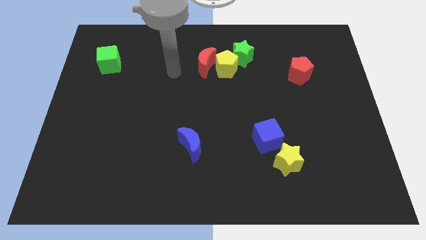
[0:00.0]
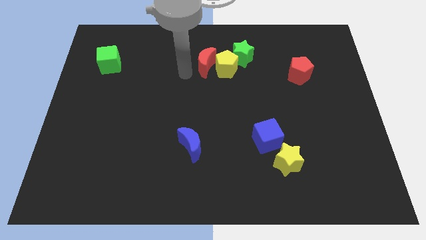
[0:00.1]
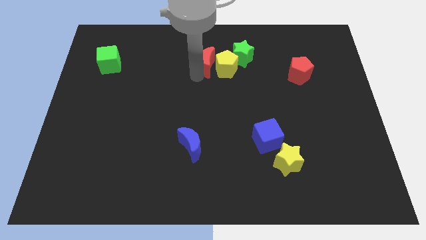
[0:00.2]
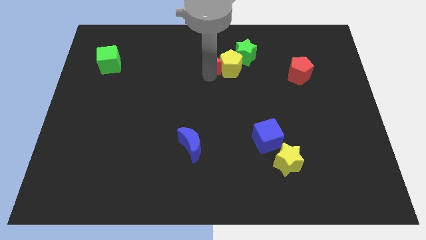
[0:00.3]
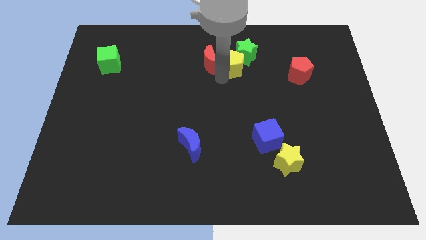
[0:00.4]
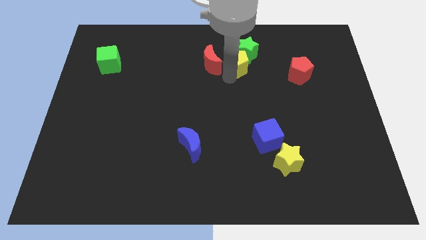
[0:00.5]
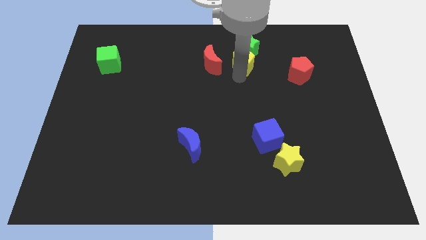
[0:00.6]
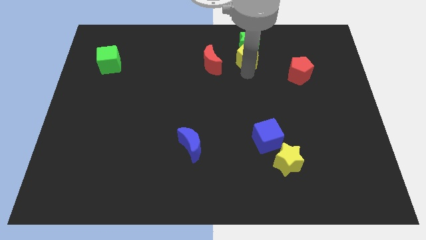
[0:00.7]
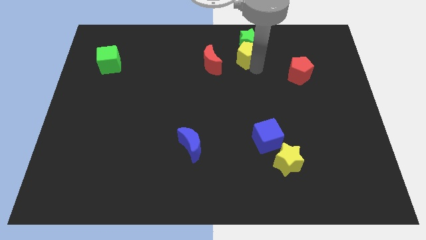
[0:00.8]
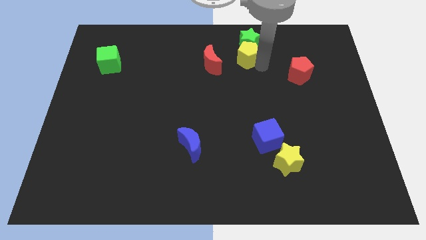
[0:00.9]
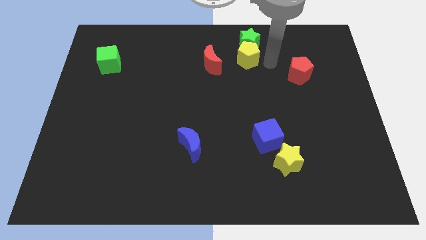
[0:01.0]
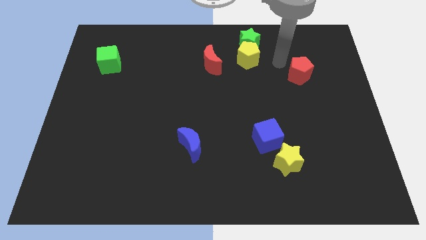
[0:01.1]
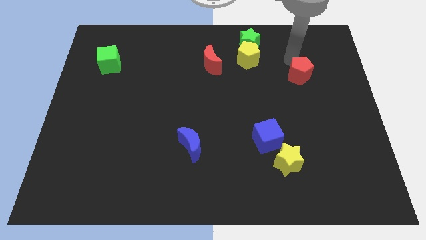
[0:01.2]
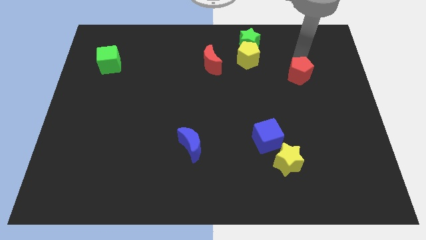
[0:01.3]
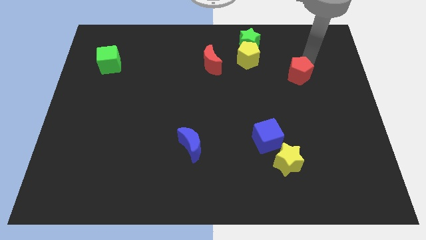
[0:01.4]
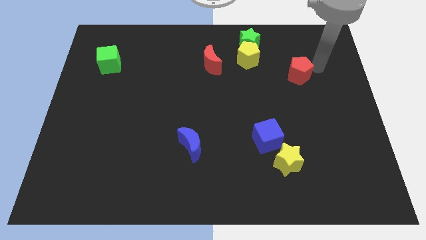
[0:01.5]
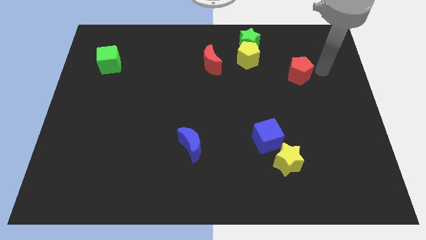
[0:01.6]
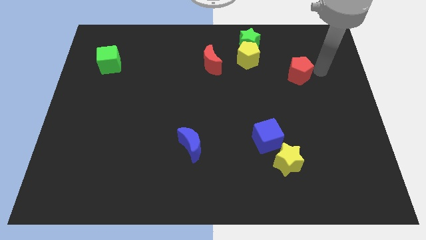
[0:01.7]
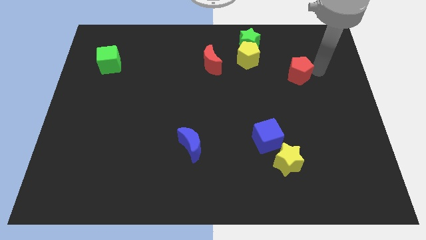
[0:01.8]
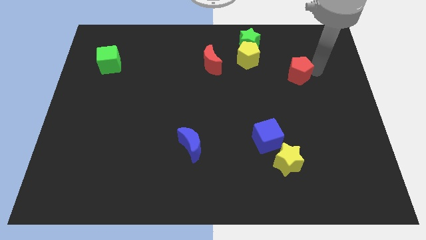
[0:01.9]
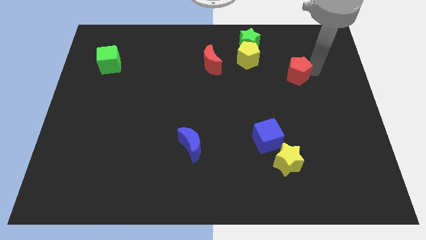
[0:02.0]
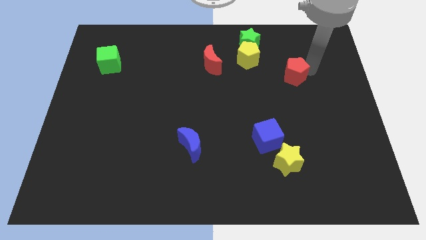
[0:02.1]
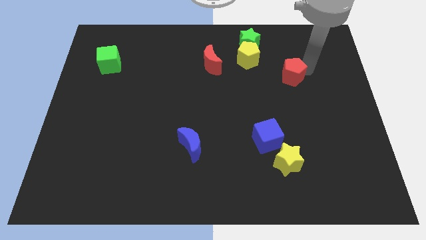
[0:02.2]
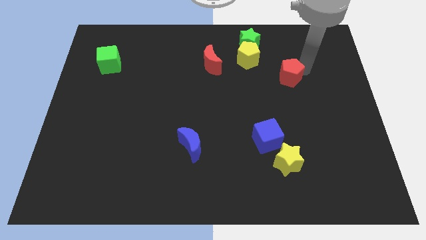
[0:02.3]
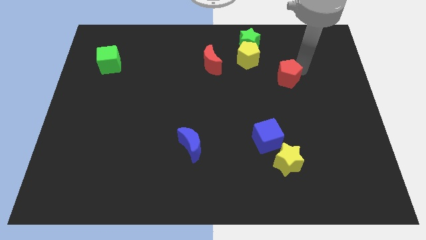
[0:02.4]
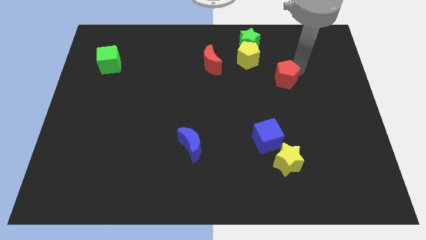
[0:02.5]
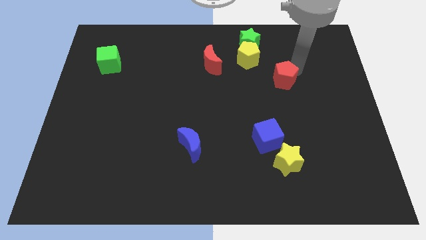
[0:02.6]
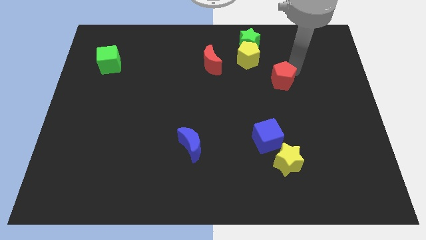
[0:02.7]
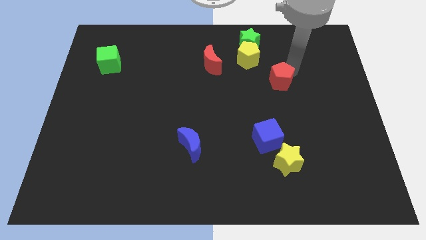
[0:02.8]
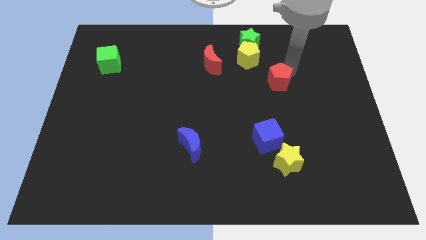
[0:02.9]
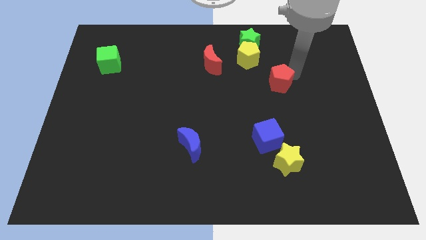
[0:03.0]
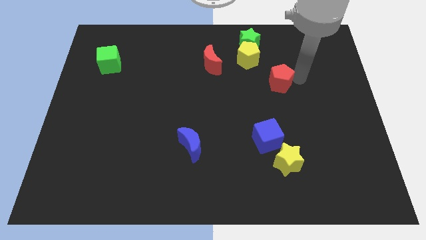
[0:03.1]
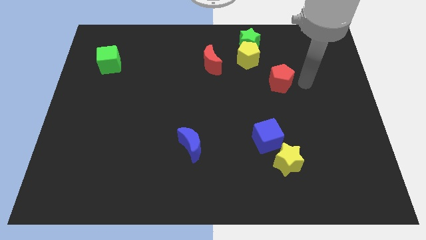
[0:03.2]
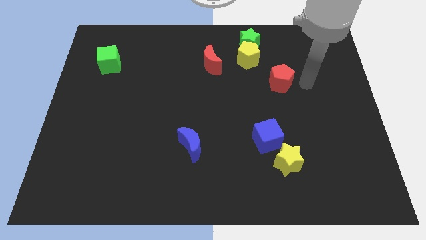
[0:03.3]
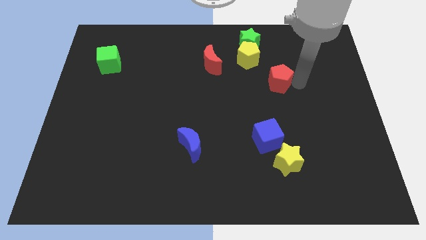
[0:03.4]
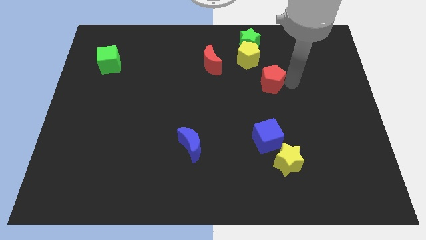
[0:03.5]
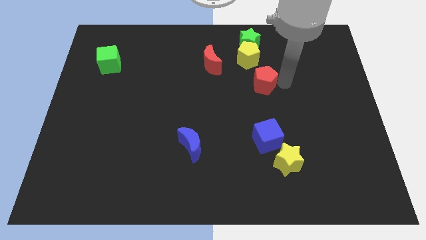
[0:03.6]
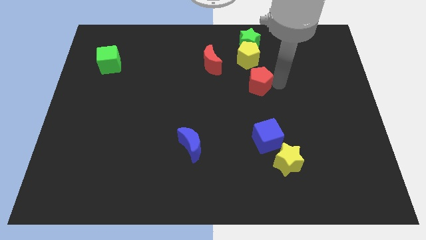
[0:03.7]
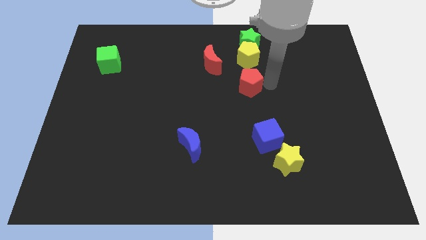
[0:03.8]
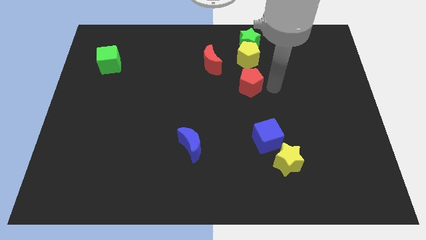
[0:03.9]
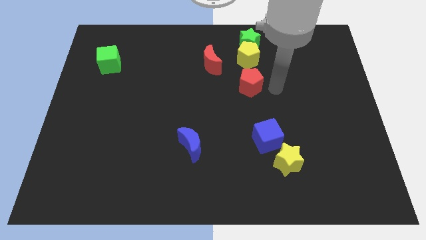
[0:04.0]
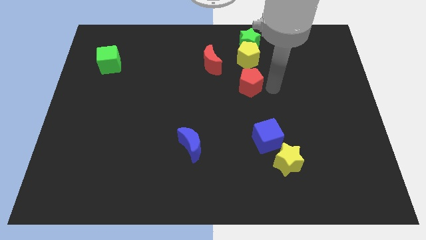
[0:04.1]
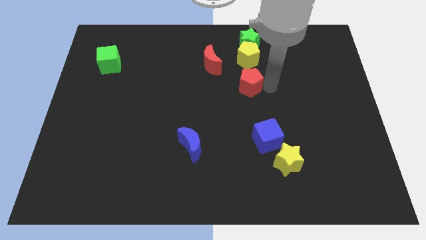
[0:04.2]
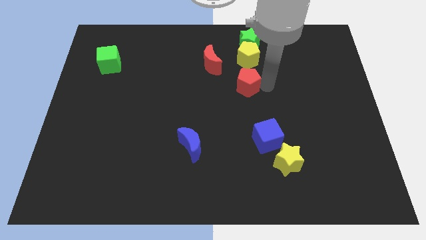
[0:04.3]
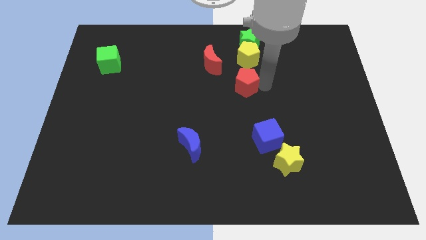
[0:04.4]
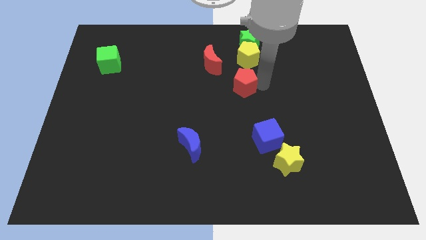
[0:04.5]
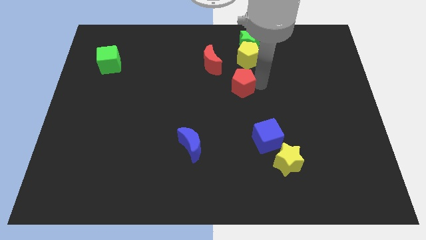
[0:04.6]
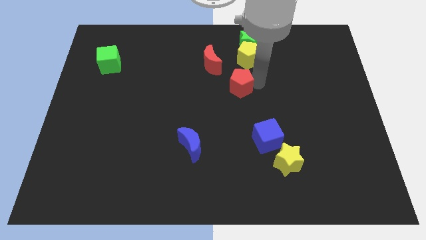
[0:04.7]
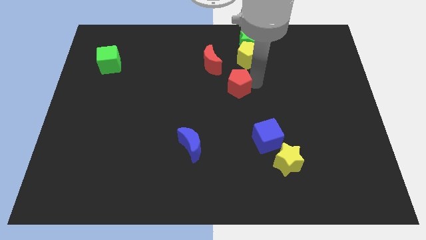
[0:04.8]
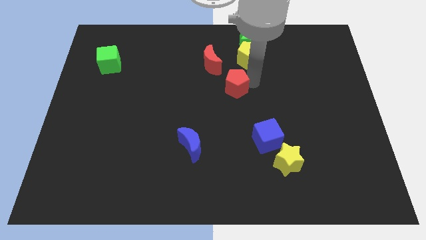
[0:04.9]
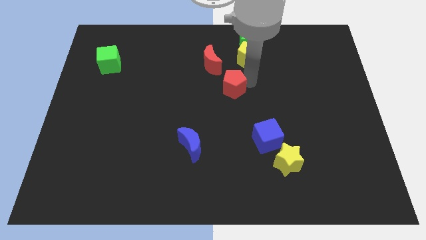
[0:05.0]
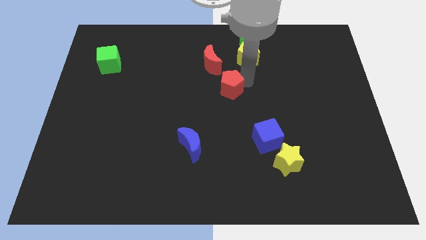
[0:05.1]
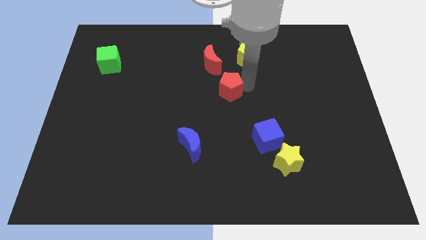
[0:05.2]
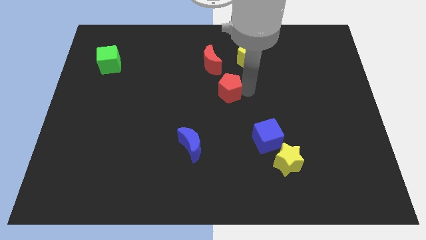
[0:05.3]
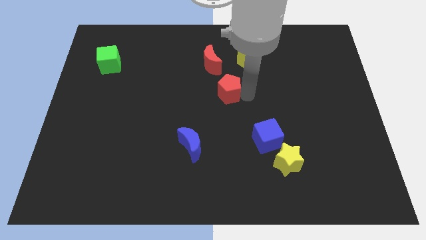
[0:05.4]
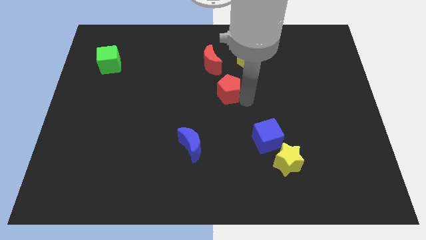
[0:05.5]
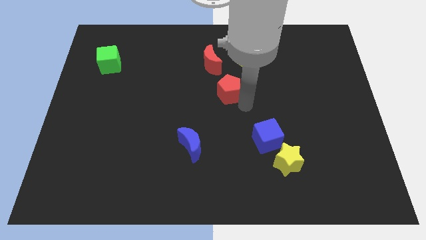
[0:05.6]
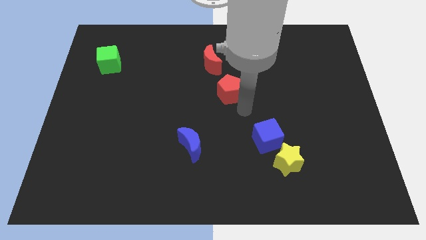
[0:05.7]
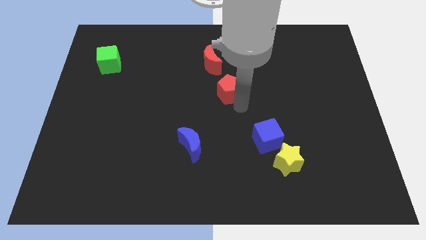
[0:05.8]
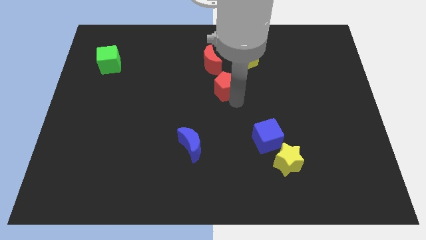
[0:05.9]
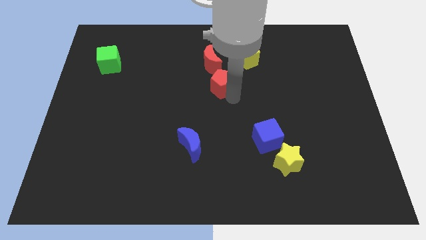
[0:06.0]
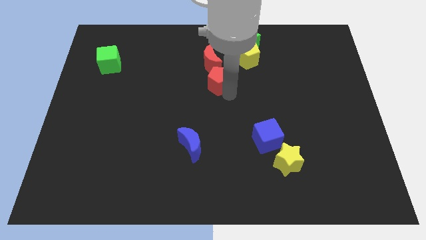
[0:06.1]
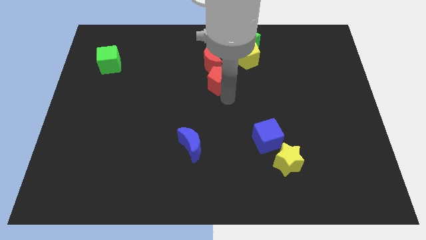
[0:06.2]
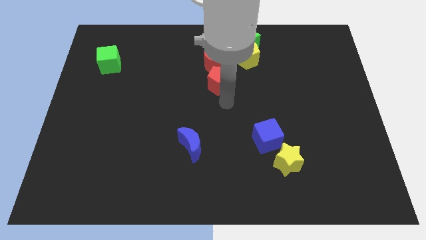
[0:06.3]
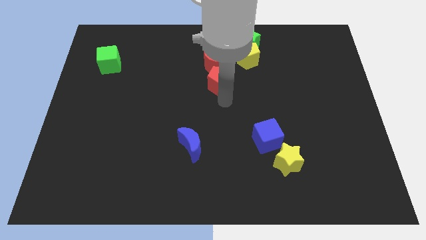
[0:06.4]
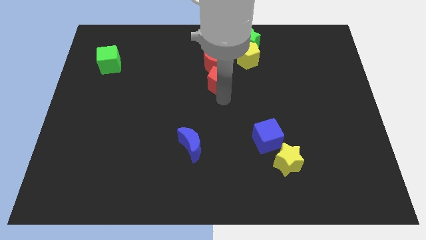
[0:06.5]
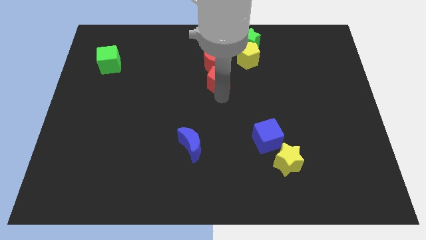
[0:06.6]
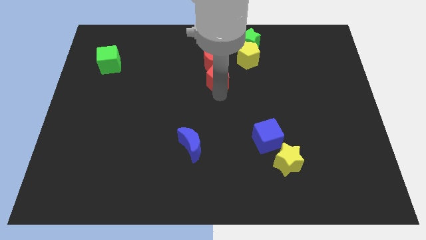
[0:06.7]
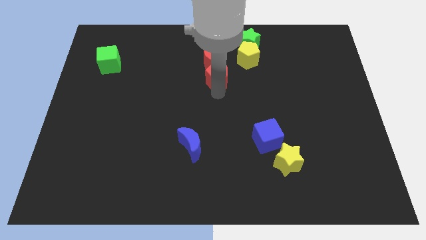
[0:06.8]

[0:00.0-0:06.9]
slide the red pentagon next to the red moon
